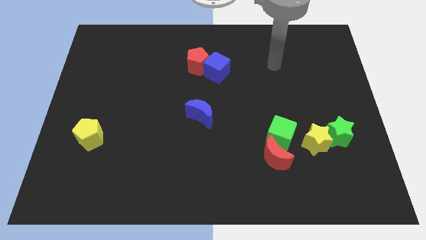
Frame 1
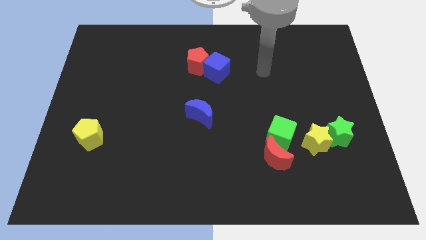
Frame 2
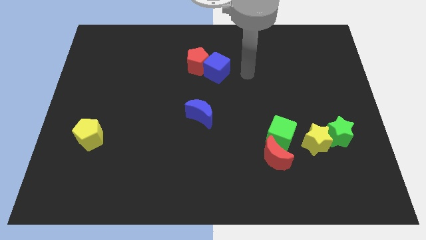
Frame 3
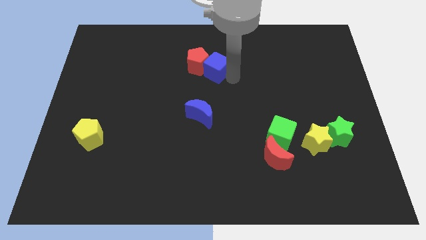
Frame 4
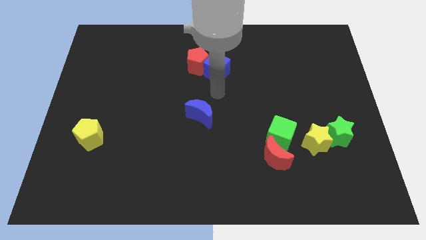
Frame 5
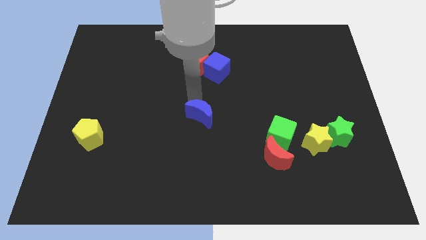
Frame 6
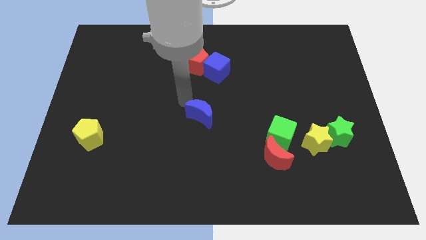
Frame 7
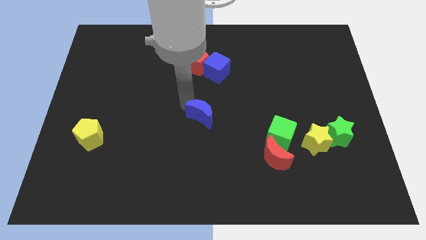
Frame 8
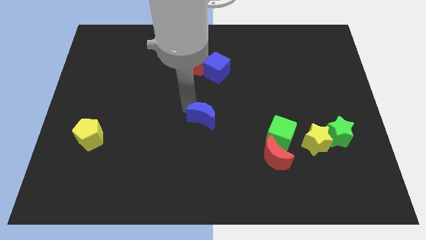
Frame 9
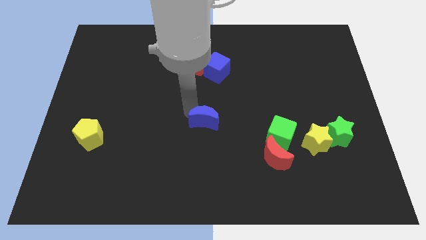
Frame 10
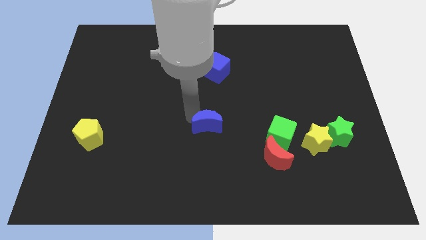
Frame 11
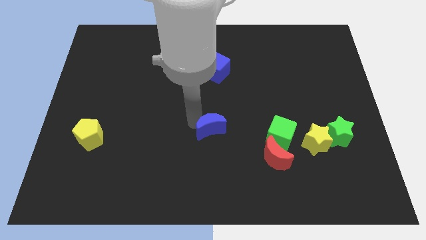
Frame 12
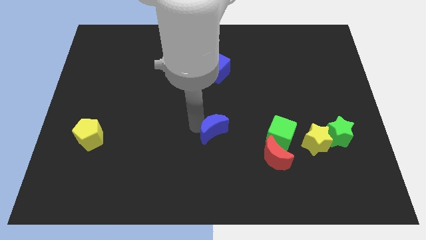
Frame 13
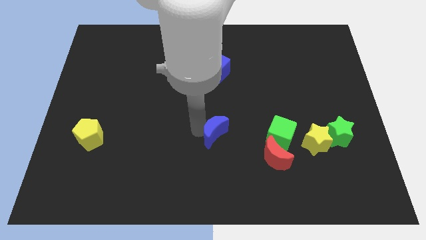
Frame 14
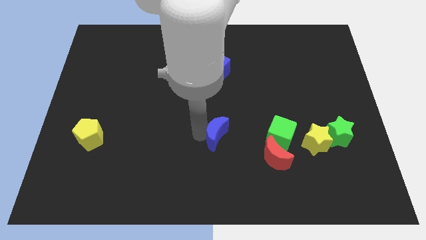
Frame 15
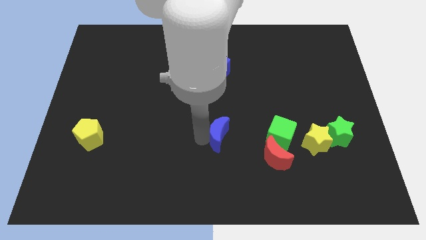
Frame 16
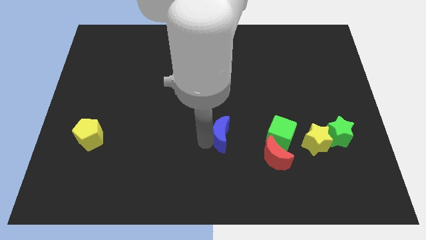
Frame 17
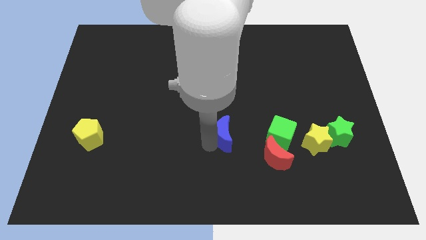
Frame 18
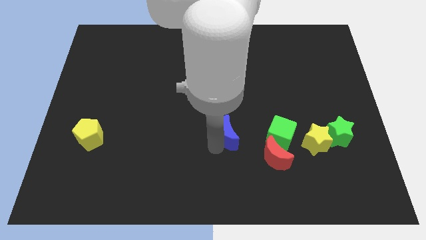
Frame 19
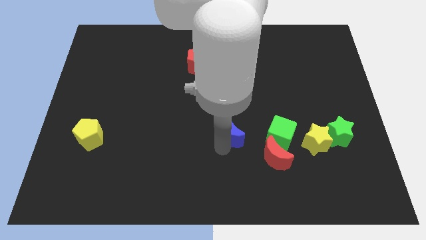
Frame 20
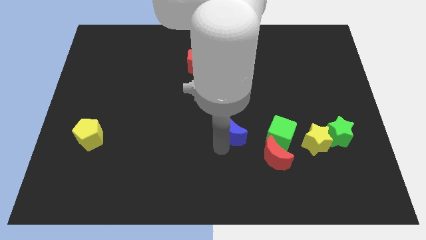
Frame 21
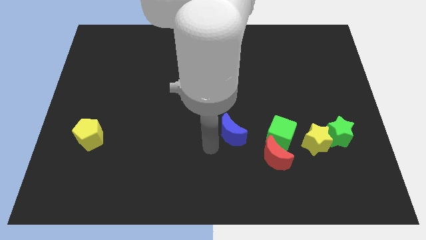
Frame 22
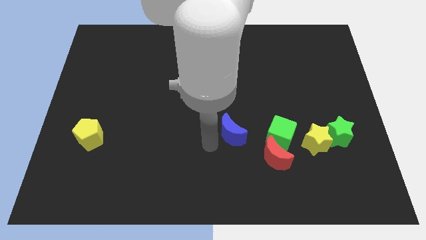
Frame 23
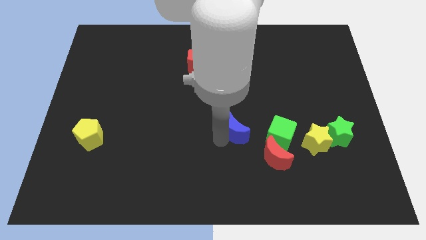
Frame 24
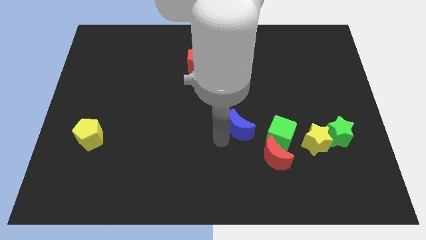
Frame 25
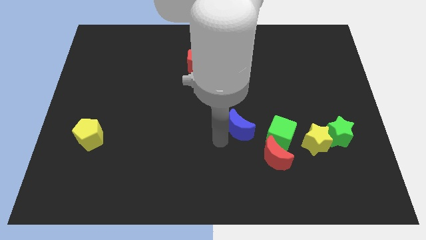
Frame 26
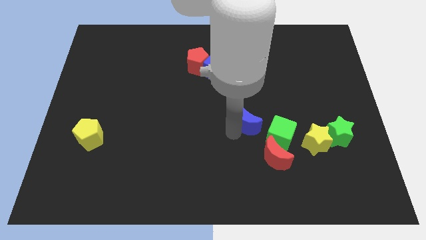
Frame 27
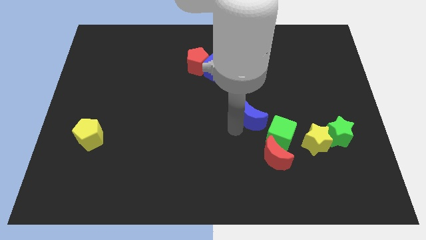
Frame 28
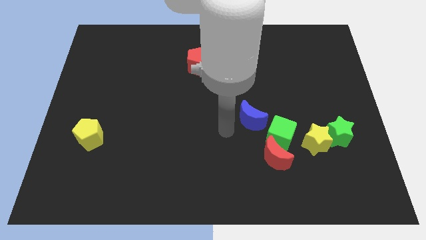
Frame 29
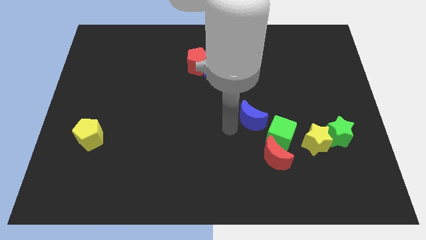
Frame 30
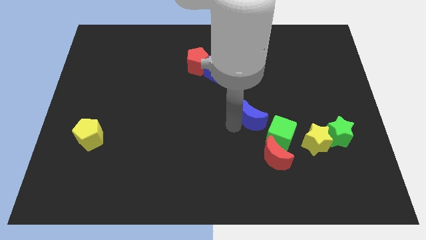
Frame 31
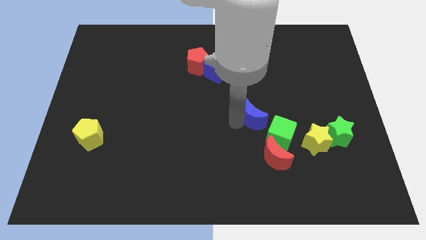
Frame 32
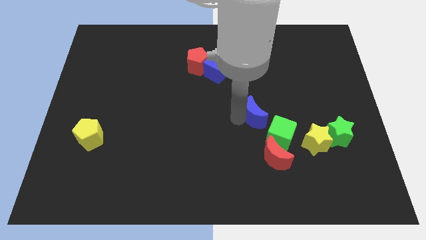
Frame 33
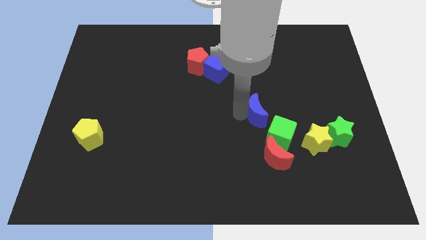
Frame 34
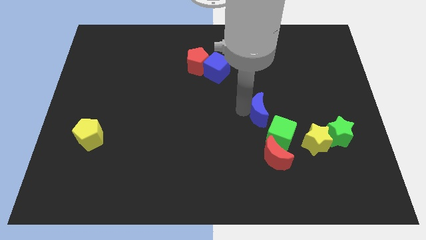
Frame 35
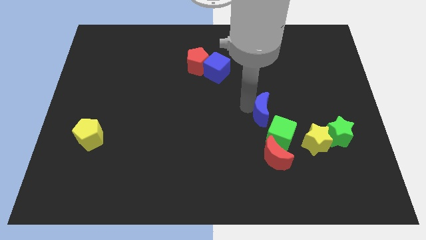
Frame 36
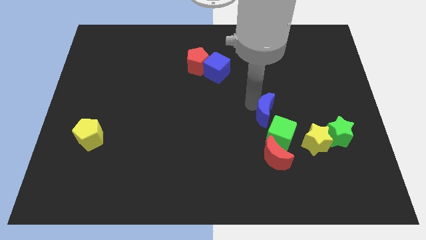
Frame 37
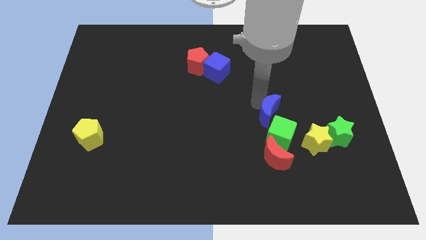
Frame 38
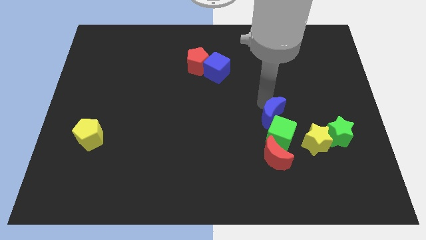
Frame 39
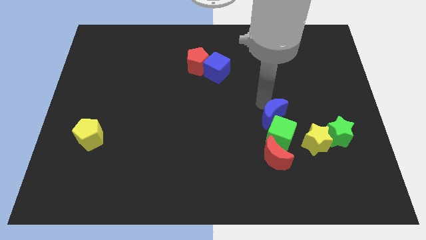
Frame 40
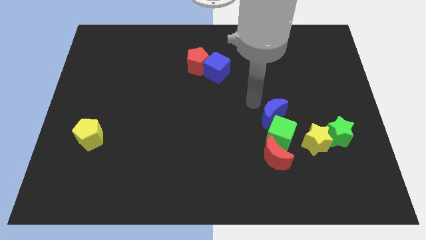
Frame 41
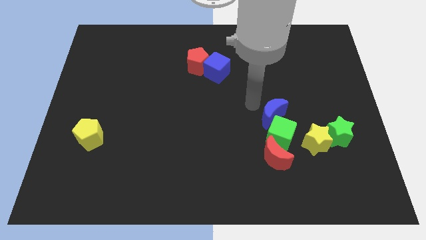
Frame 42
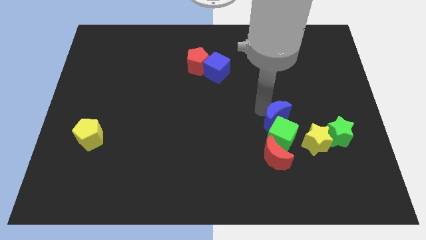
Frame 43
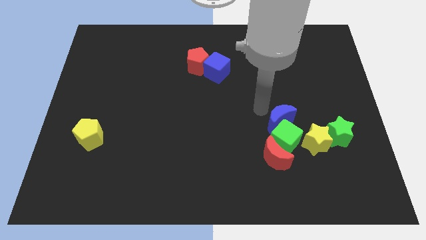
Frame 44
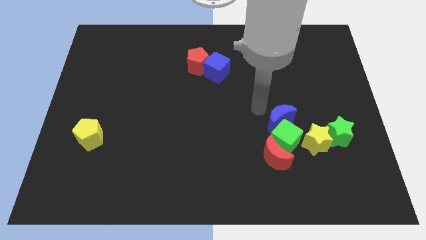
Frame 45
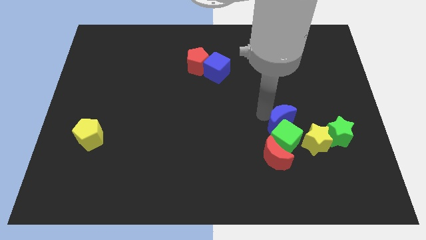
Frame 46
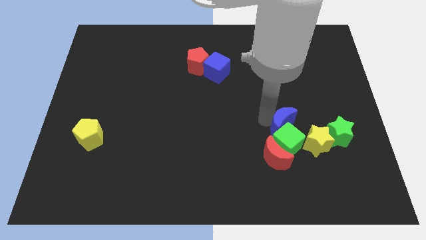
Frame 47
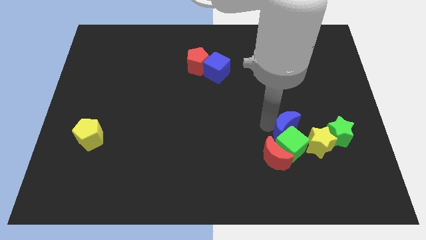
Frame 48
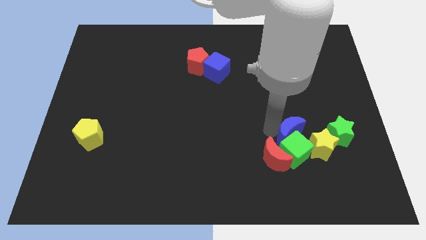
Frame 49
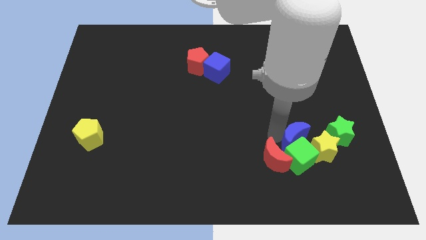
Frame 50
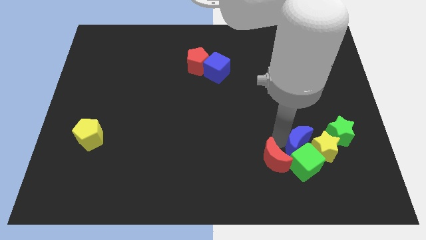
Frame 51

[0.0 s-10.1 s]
put the blue moon next to the yellow star

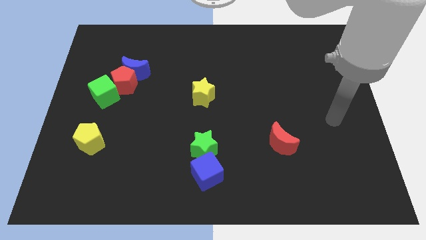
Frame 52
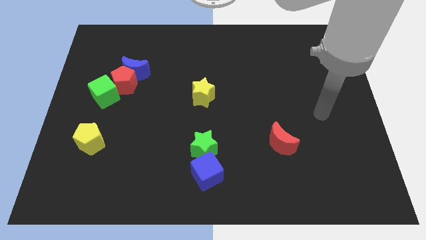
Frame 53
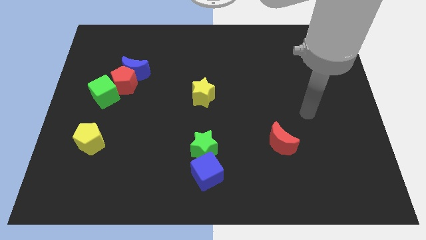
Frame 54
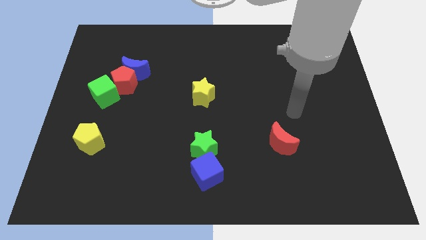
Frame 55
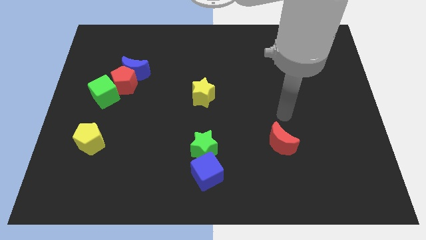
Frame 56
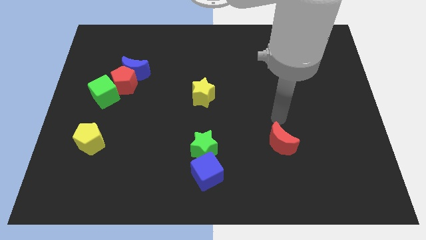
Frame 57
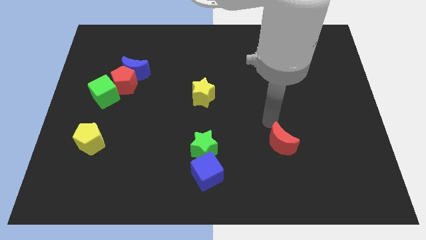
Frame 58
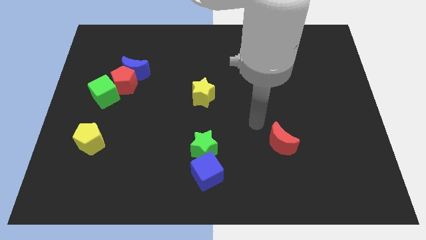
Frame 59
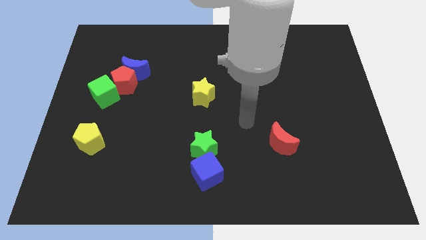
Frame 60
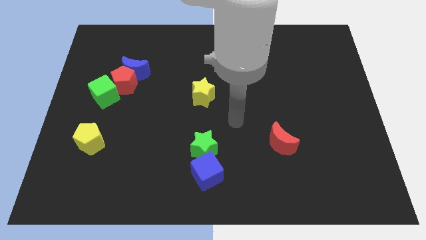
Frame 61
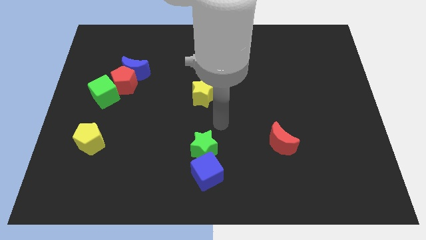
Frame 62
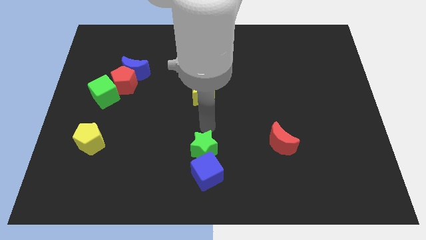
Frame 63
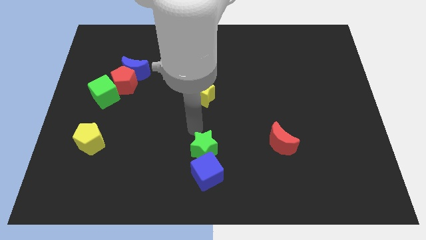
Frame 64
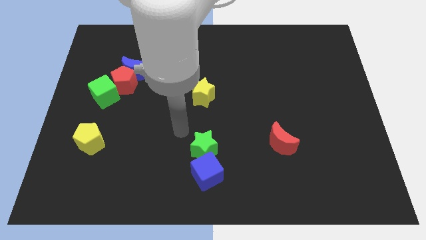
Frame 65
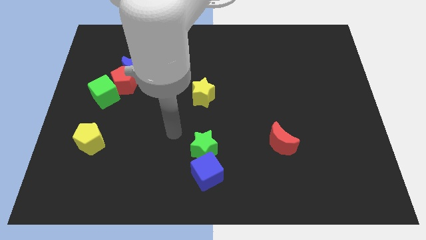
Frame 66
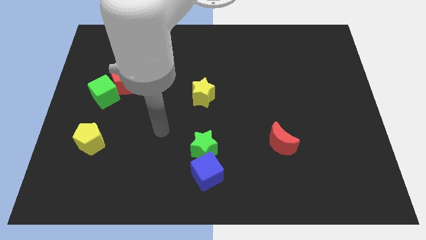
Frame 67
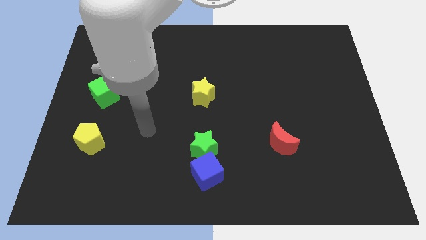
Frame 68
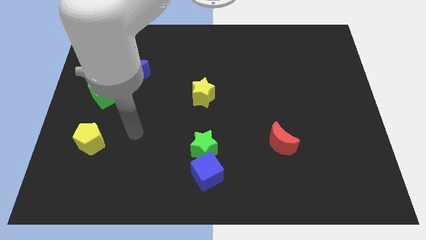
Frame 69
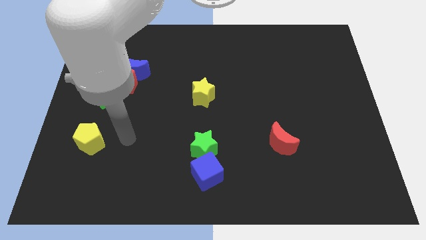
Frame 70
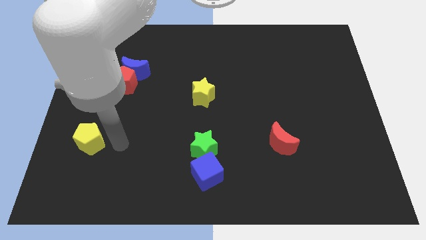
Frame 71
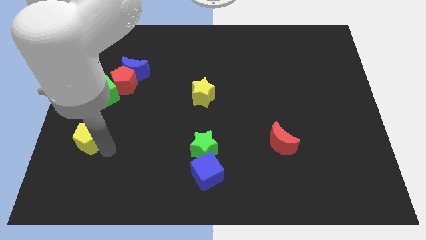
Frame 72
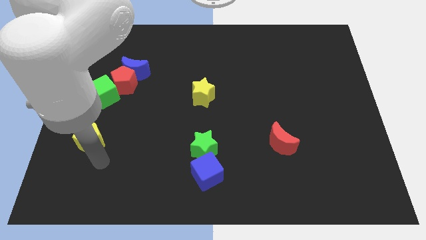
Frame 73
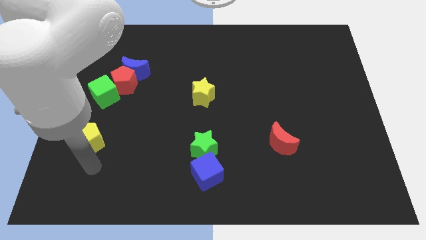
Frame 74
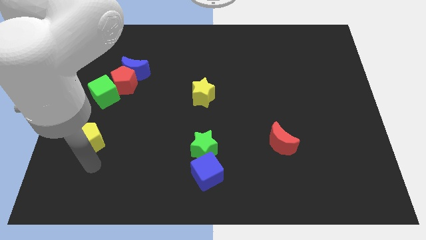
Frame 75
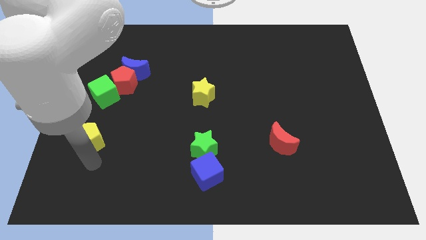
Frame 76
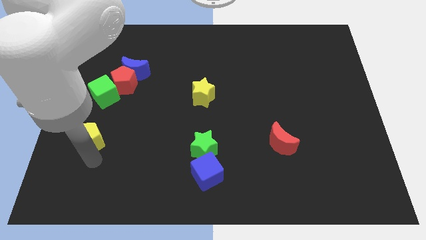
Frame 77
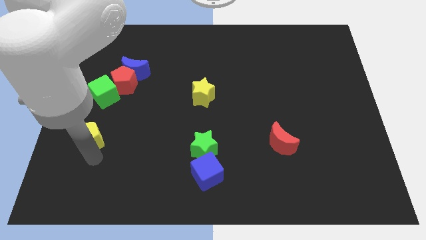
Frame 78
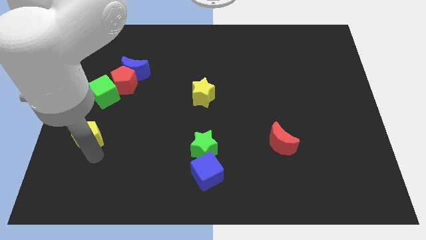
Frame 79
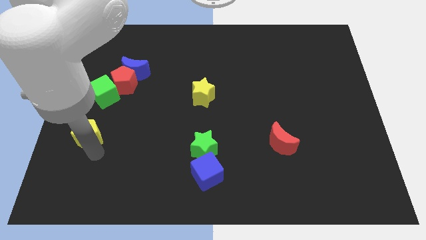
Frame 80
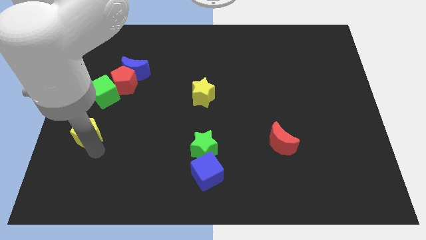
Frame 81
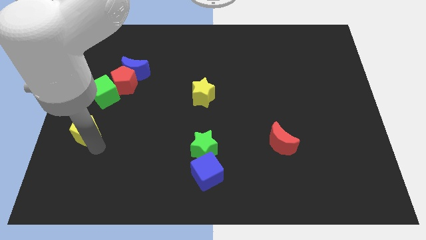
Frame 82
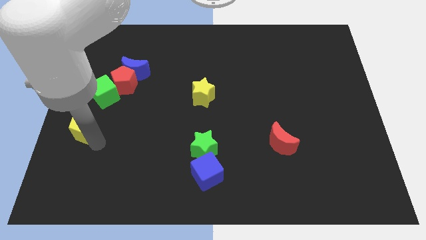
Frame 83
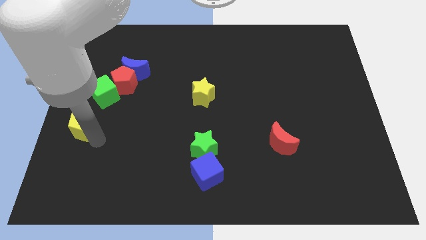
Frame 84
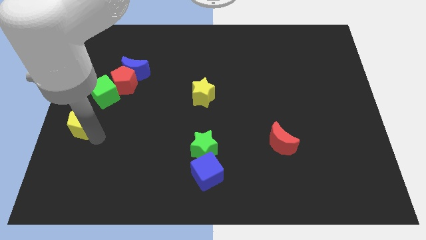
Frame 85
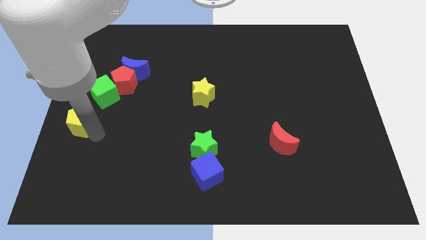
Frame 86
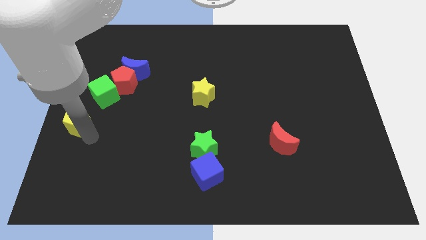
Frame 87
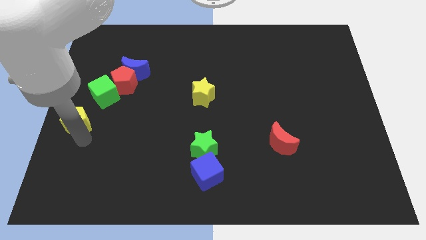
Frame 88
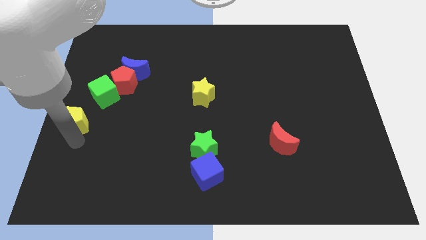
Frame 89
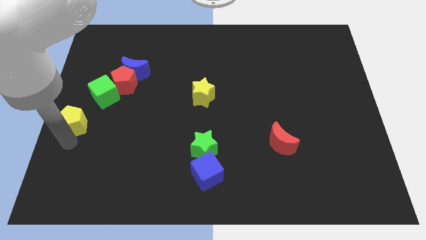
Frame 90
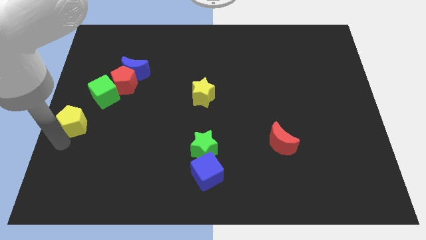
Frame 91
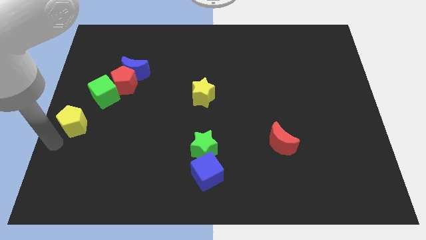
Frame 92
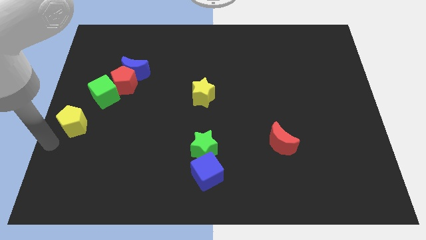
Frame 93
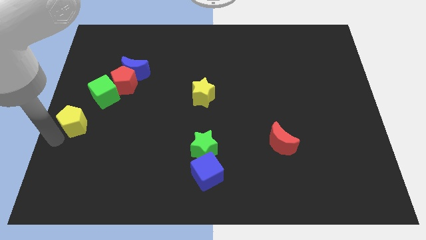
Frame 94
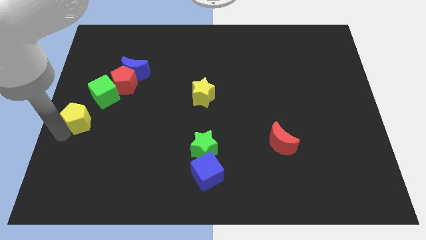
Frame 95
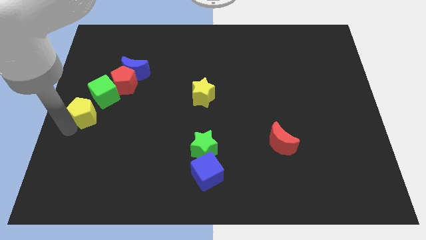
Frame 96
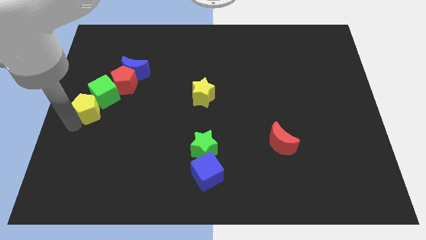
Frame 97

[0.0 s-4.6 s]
slide the yellow pentagon next to the green cube
